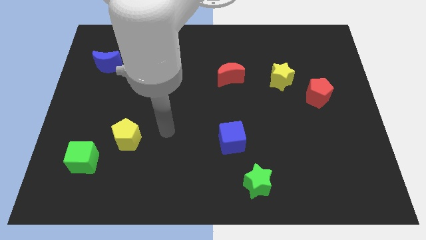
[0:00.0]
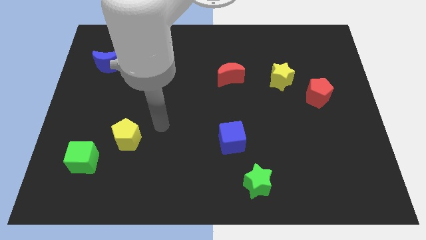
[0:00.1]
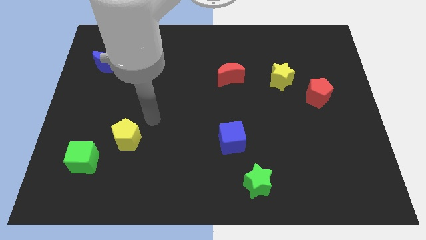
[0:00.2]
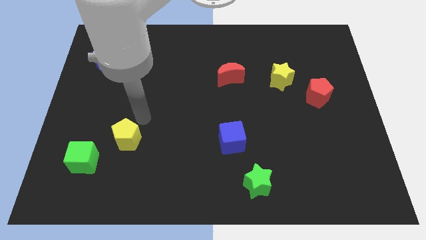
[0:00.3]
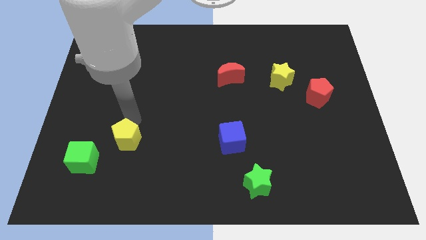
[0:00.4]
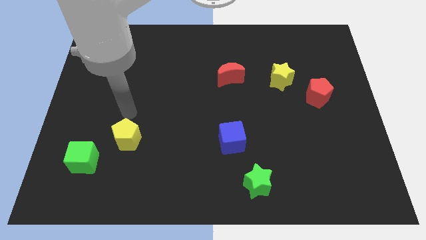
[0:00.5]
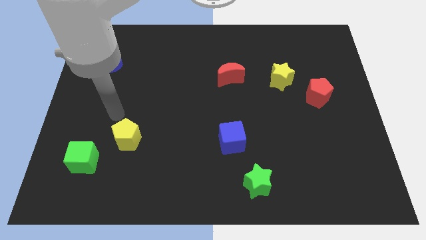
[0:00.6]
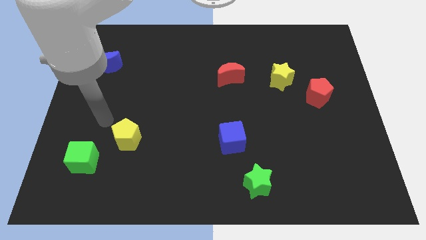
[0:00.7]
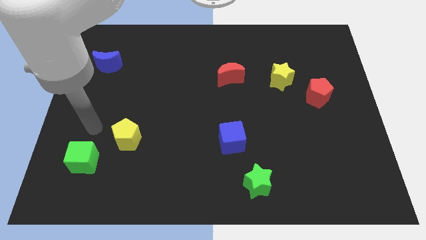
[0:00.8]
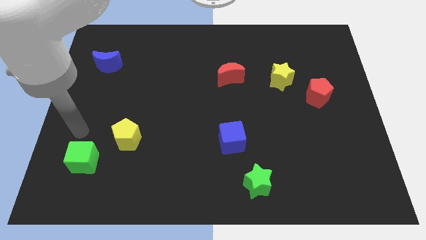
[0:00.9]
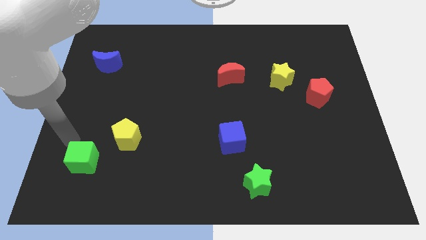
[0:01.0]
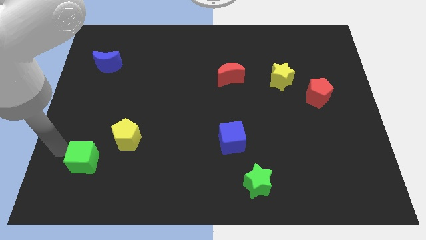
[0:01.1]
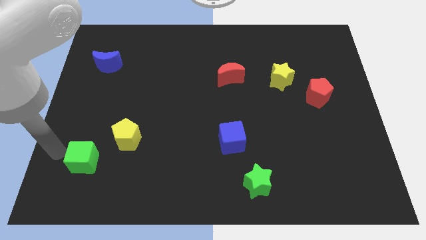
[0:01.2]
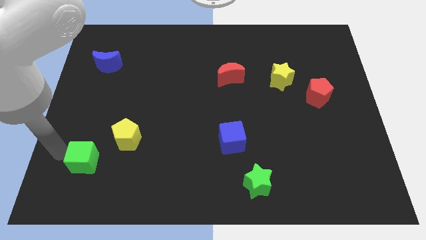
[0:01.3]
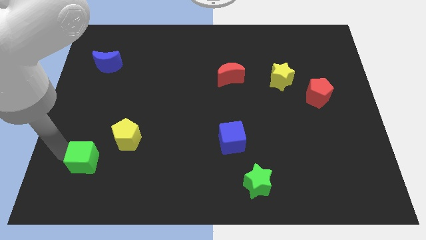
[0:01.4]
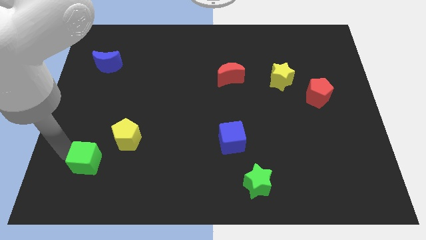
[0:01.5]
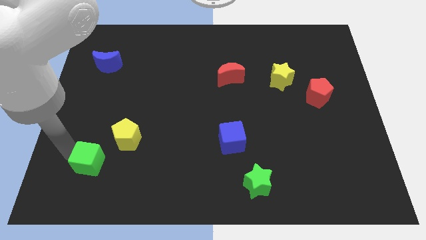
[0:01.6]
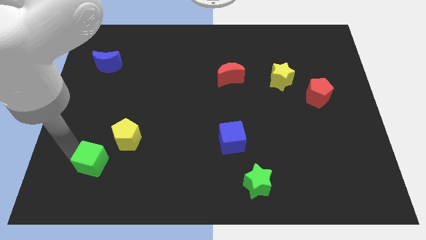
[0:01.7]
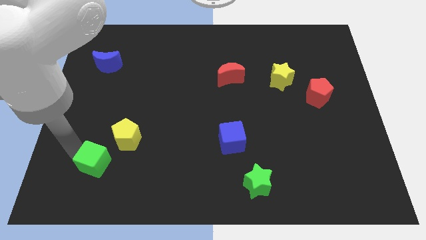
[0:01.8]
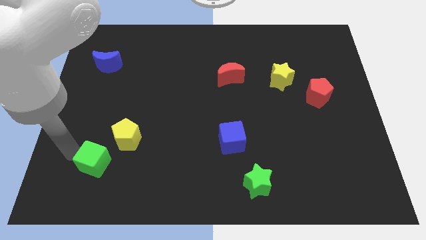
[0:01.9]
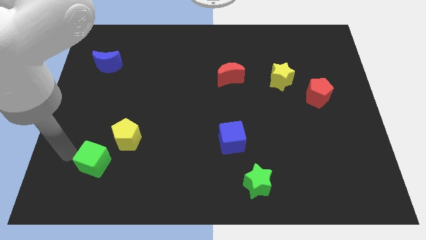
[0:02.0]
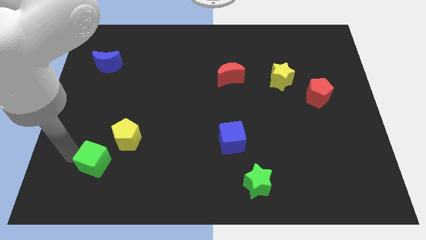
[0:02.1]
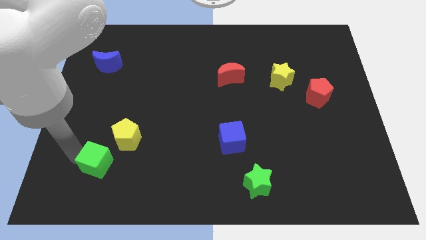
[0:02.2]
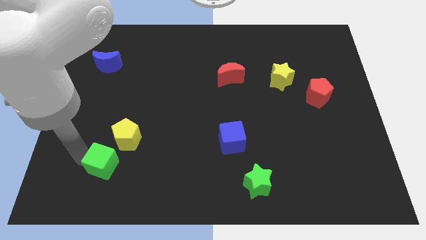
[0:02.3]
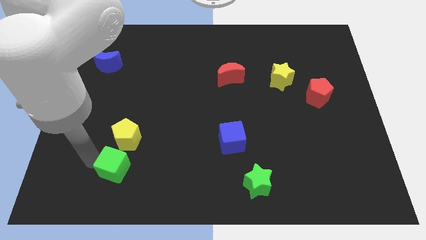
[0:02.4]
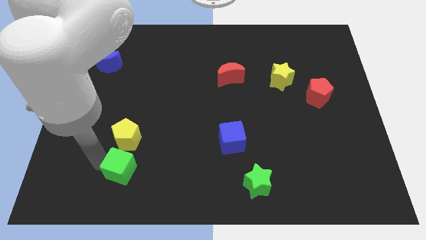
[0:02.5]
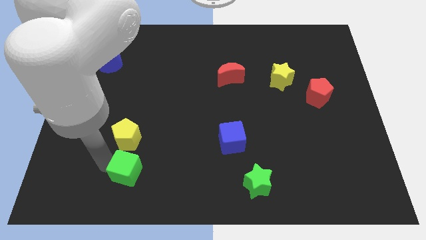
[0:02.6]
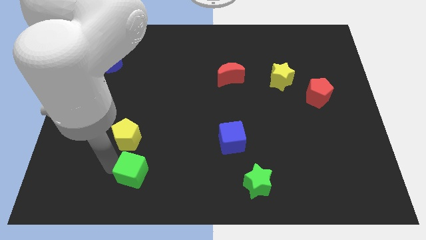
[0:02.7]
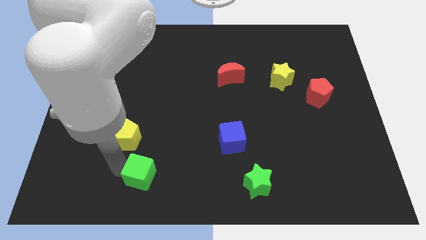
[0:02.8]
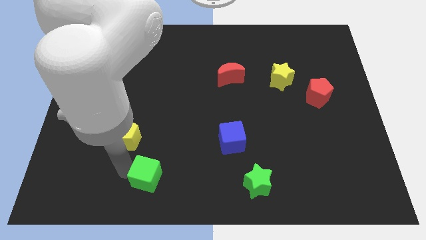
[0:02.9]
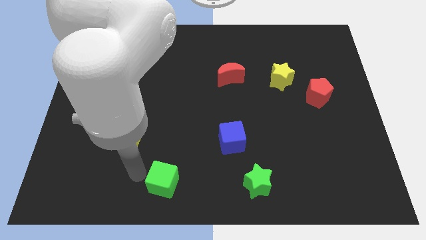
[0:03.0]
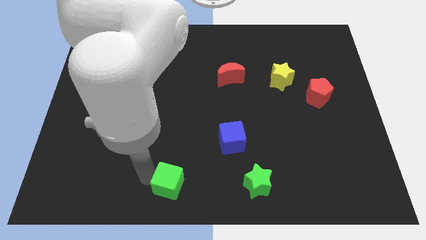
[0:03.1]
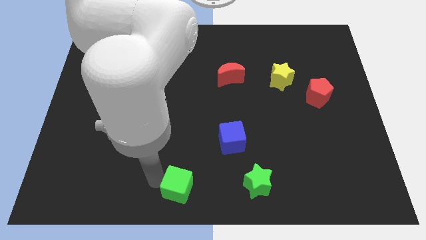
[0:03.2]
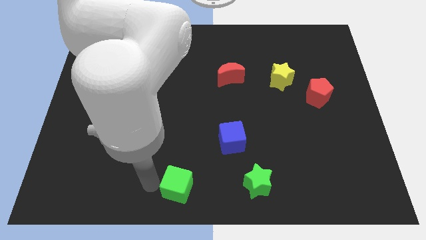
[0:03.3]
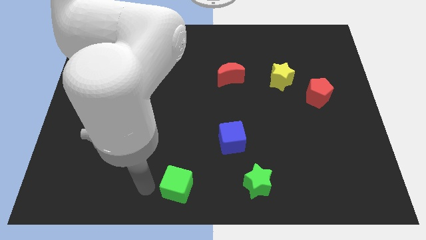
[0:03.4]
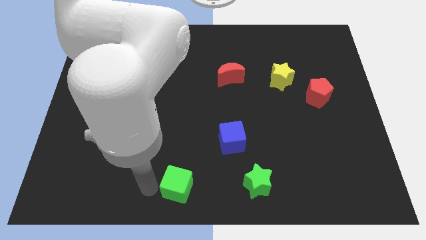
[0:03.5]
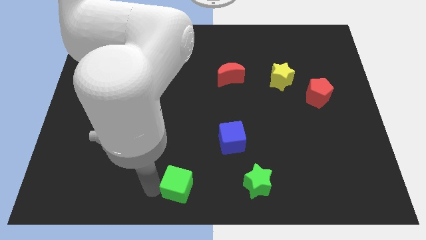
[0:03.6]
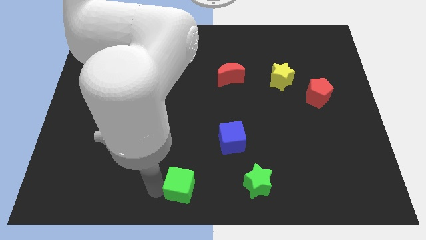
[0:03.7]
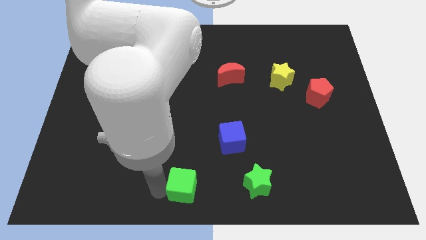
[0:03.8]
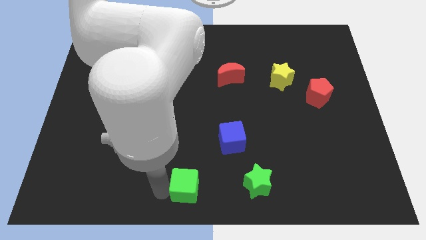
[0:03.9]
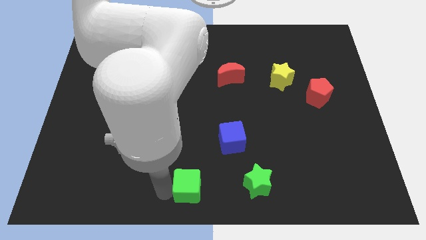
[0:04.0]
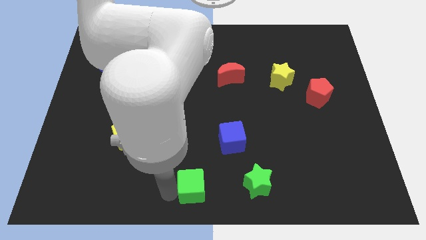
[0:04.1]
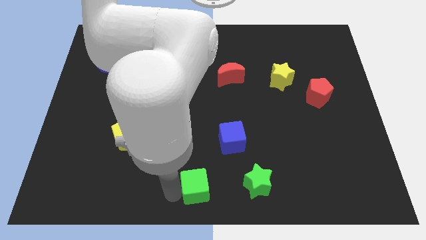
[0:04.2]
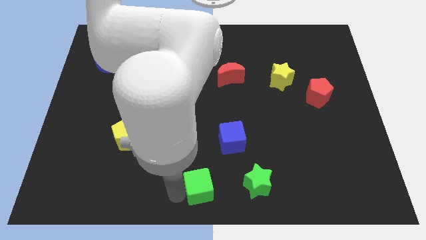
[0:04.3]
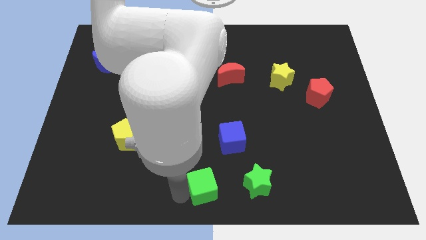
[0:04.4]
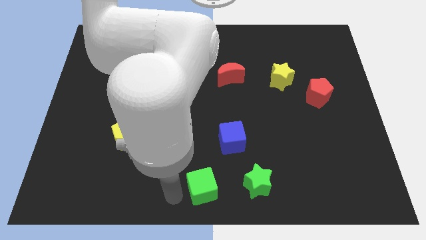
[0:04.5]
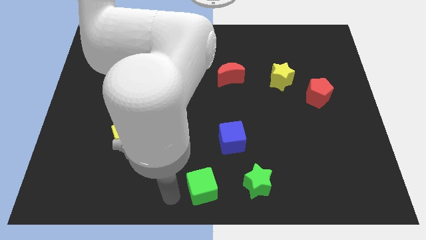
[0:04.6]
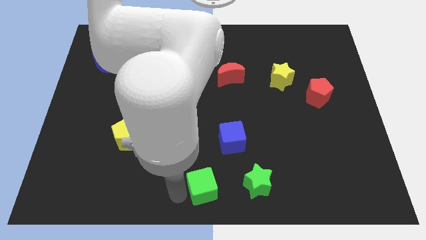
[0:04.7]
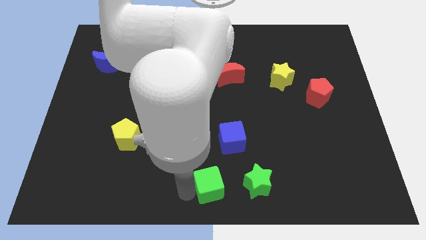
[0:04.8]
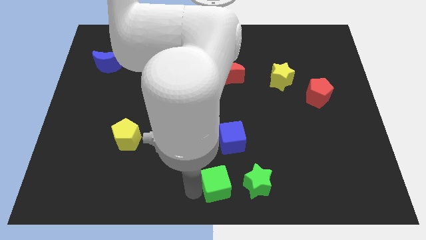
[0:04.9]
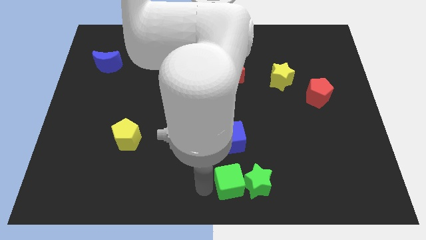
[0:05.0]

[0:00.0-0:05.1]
slide the green cube to the green star

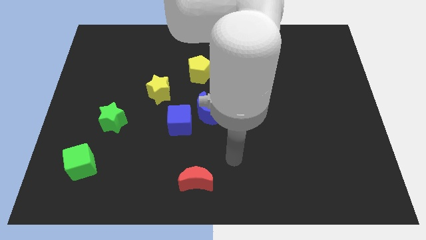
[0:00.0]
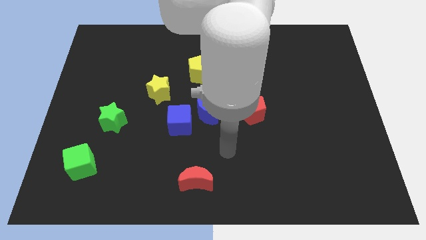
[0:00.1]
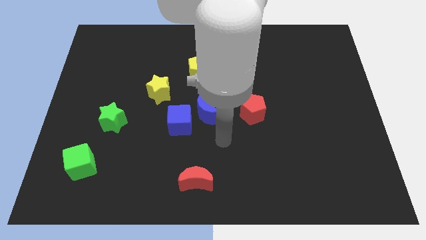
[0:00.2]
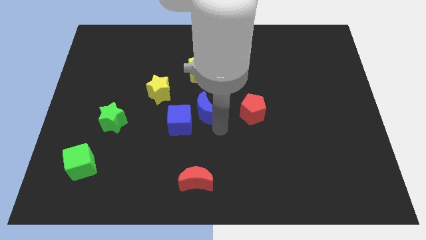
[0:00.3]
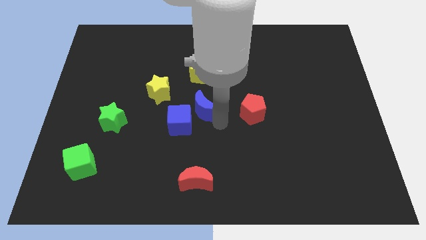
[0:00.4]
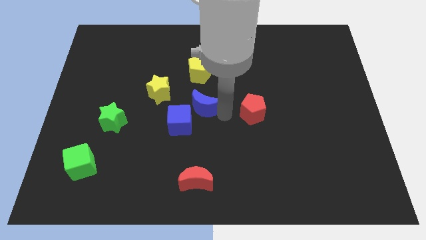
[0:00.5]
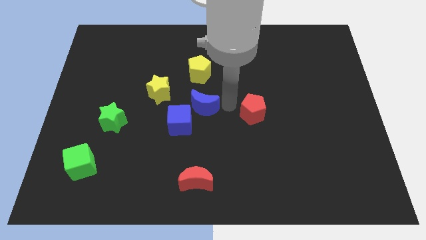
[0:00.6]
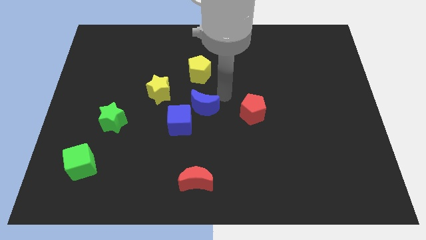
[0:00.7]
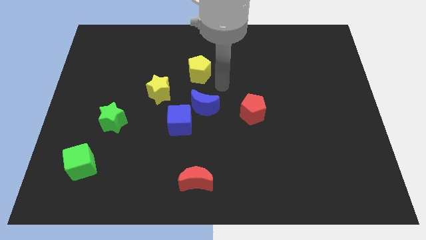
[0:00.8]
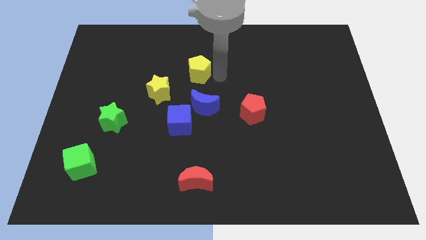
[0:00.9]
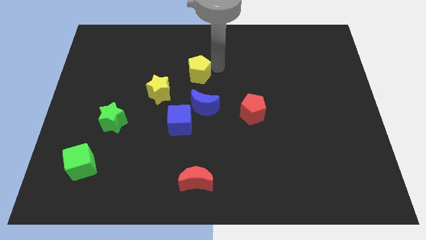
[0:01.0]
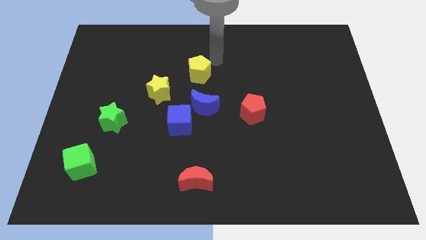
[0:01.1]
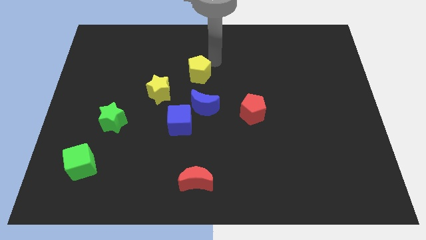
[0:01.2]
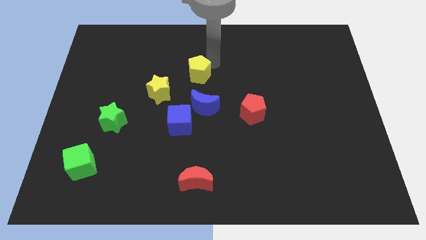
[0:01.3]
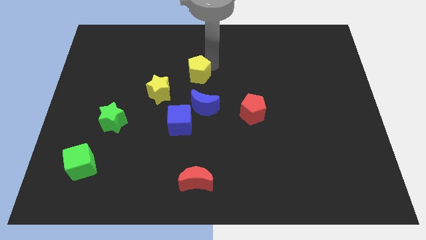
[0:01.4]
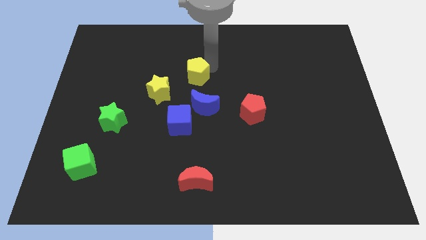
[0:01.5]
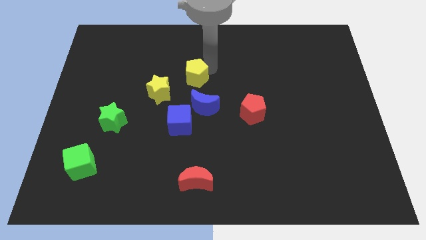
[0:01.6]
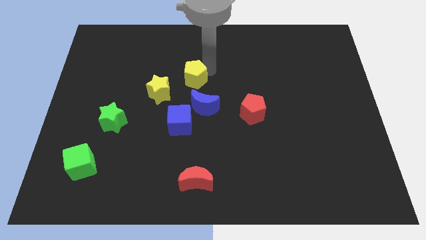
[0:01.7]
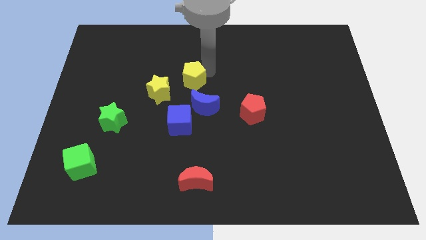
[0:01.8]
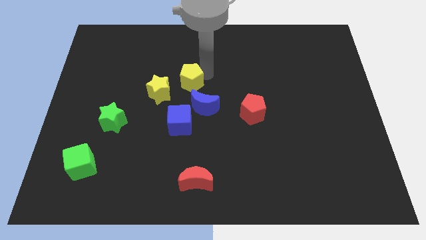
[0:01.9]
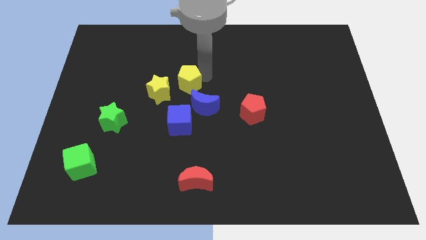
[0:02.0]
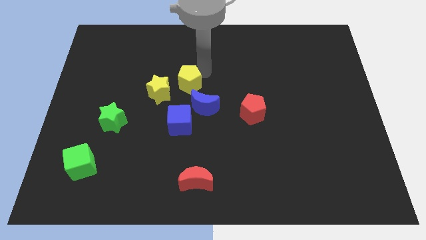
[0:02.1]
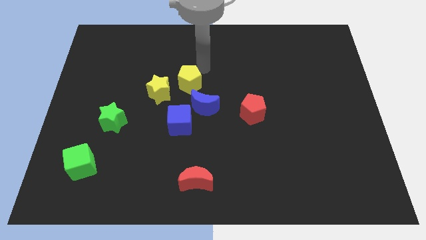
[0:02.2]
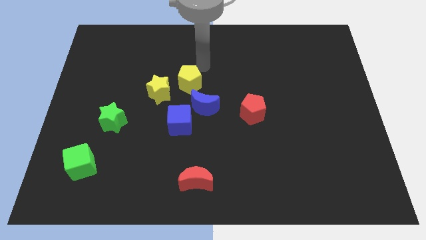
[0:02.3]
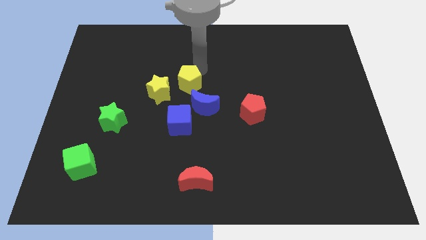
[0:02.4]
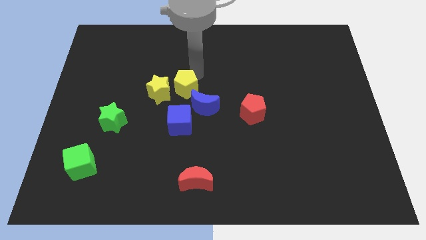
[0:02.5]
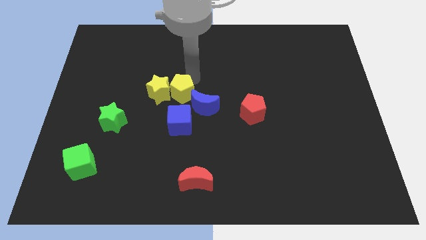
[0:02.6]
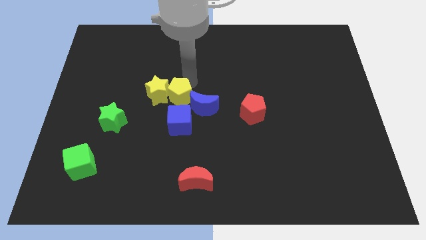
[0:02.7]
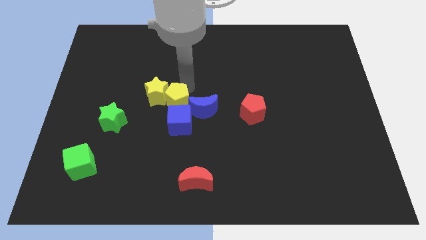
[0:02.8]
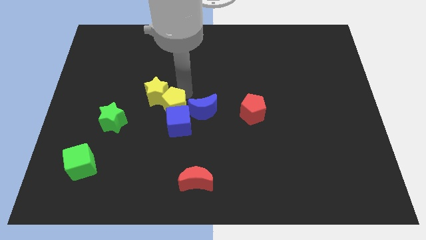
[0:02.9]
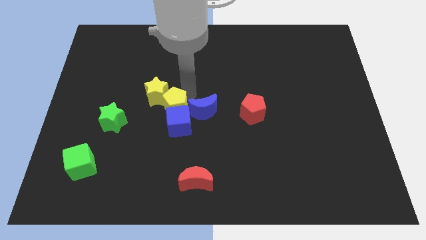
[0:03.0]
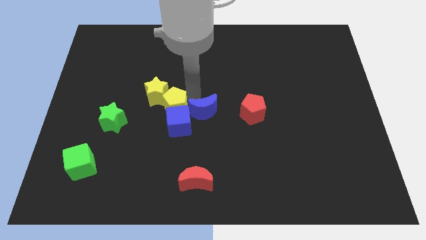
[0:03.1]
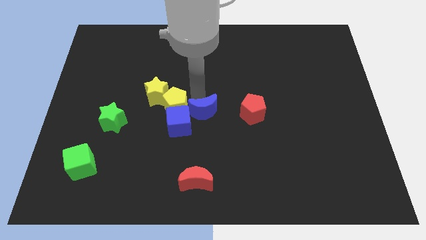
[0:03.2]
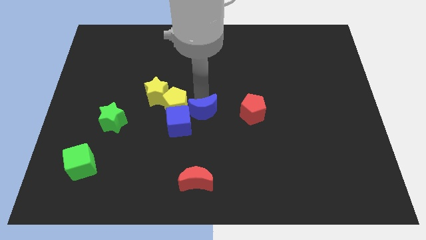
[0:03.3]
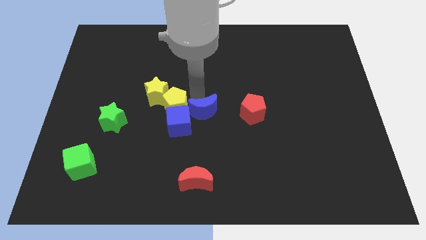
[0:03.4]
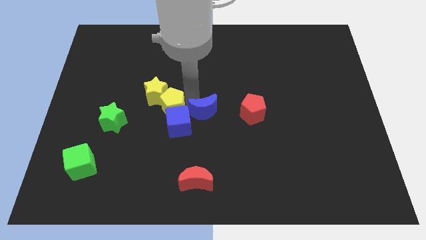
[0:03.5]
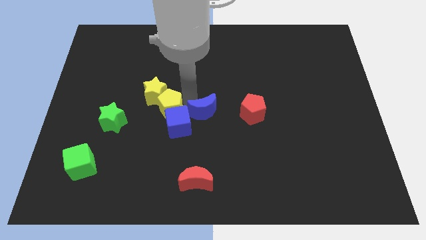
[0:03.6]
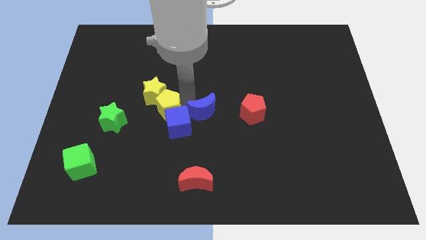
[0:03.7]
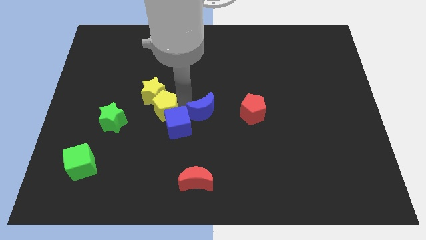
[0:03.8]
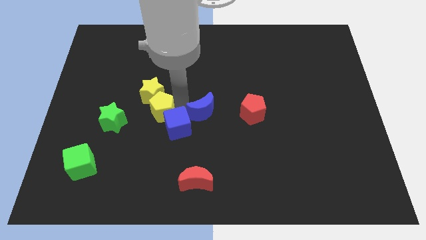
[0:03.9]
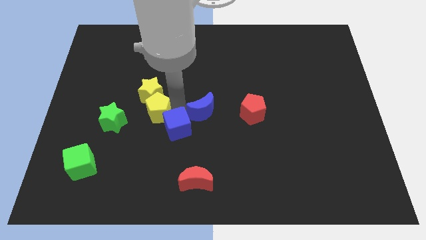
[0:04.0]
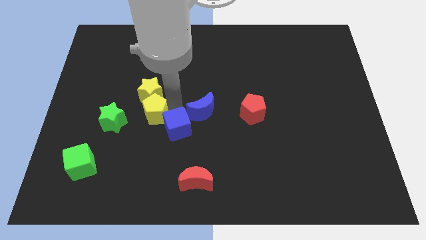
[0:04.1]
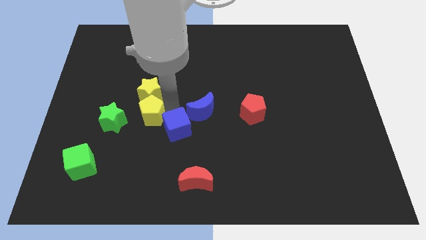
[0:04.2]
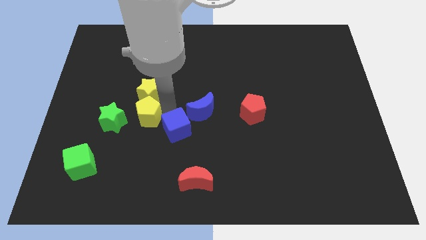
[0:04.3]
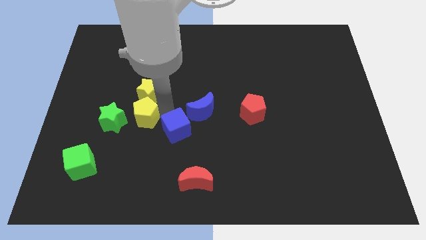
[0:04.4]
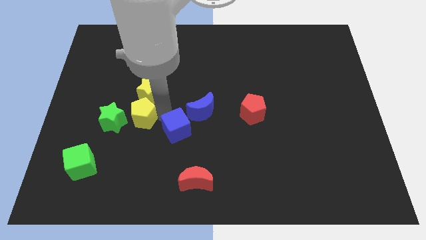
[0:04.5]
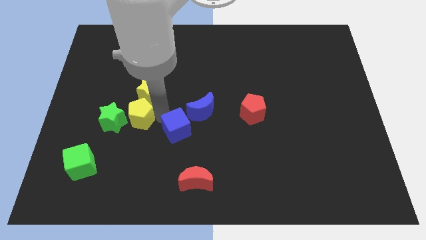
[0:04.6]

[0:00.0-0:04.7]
move the yellow pentagon to the green star
